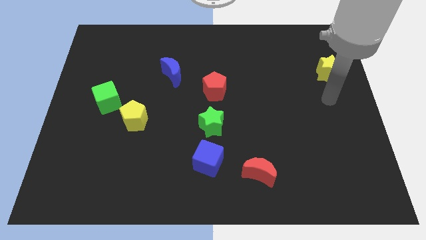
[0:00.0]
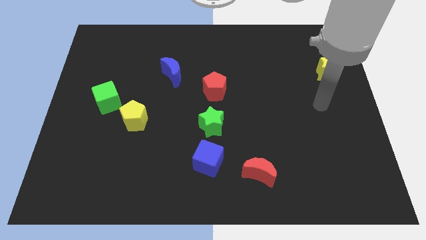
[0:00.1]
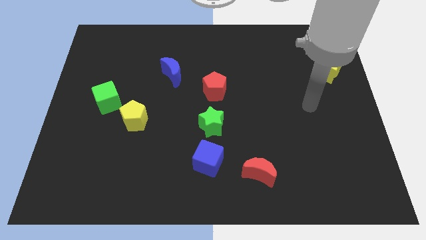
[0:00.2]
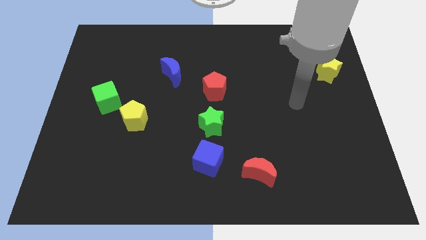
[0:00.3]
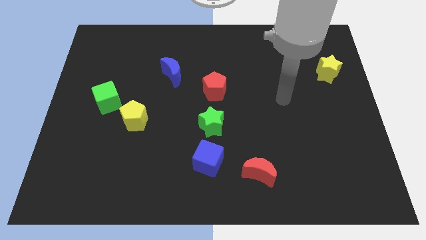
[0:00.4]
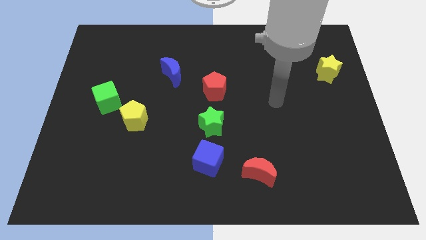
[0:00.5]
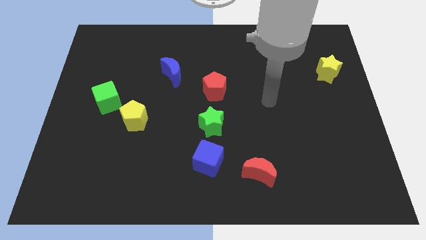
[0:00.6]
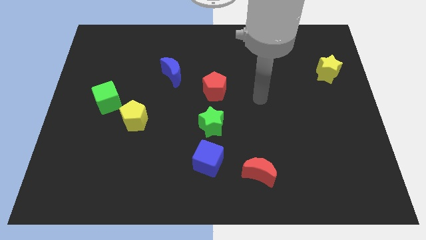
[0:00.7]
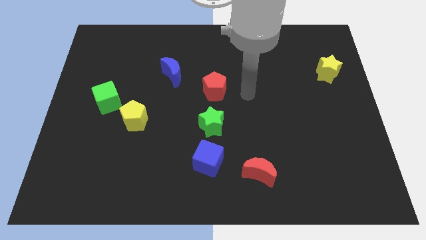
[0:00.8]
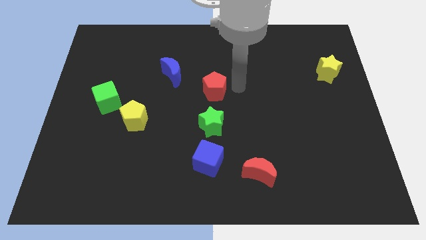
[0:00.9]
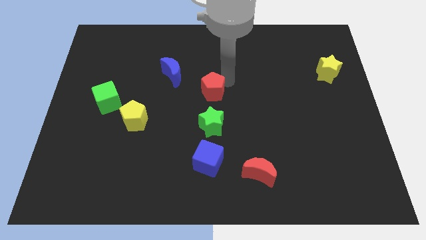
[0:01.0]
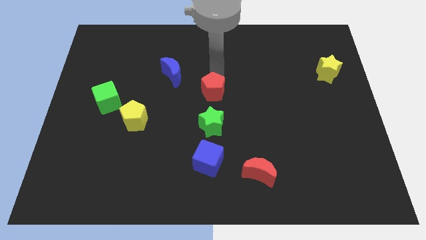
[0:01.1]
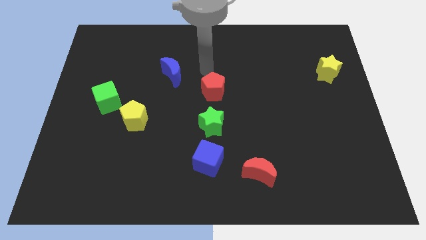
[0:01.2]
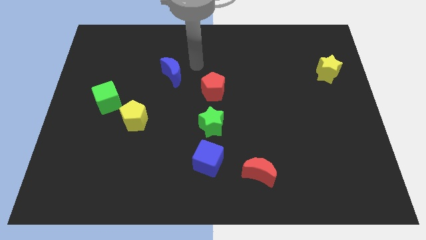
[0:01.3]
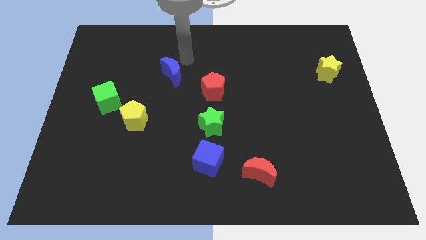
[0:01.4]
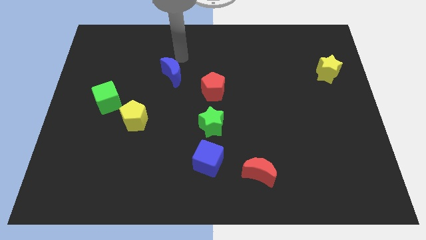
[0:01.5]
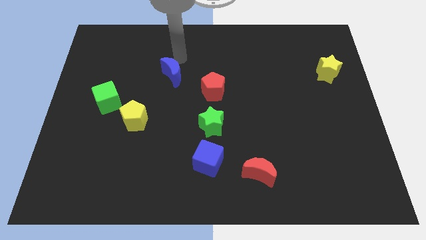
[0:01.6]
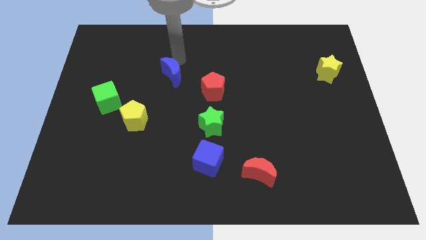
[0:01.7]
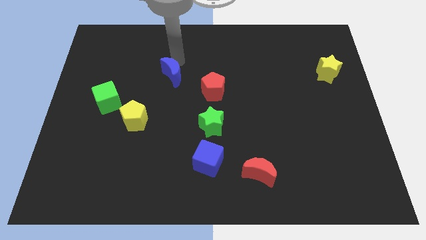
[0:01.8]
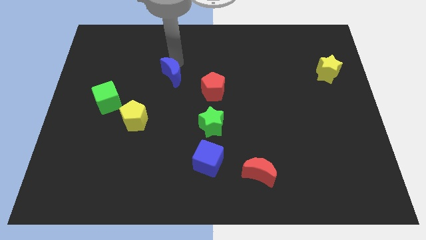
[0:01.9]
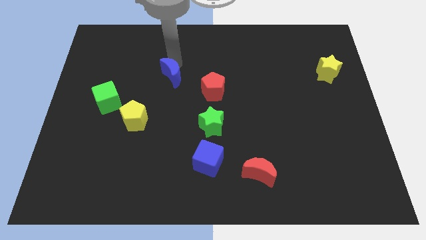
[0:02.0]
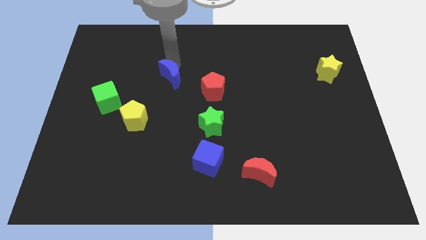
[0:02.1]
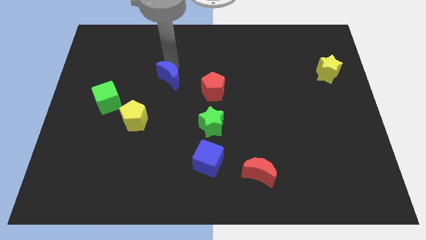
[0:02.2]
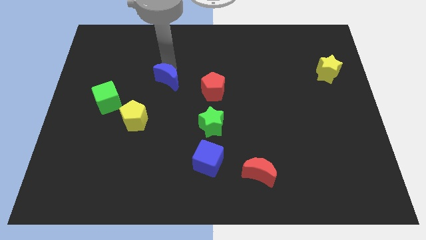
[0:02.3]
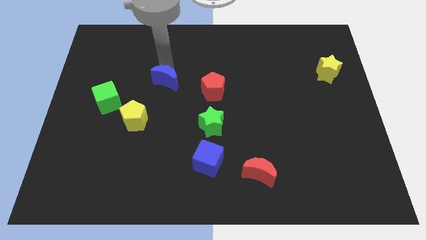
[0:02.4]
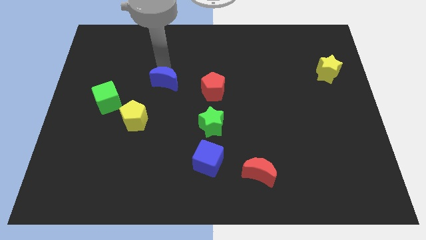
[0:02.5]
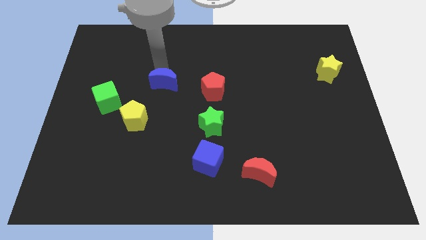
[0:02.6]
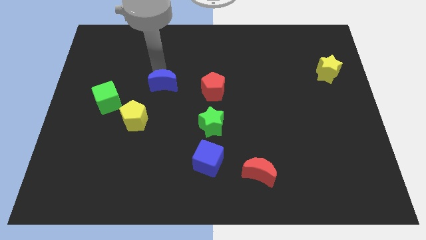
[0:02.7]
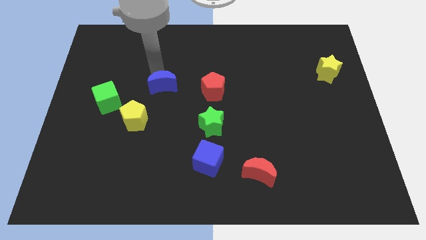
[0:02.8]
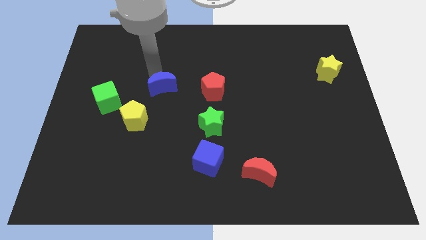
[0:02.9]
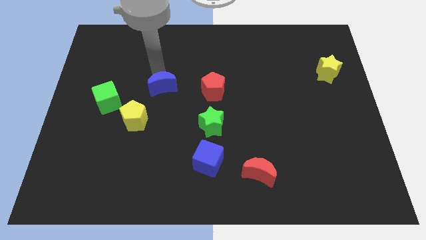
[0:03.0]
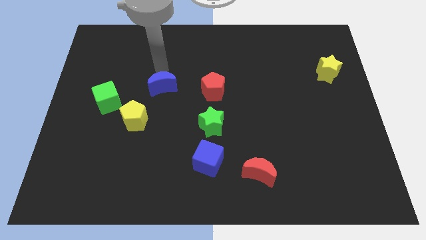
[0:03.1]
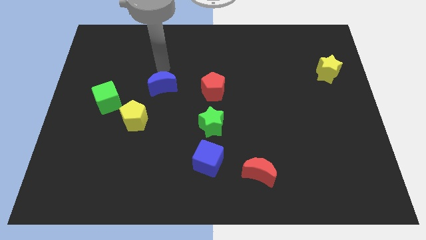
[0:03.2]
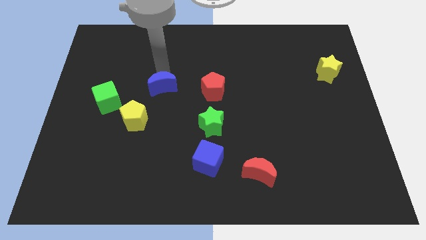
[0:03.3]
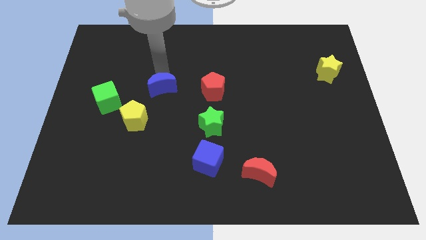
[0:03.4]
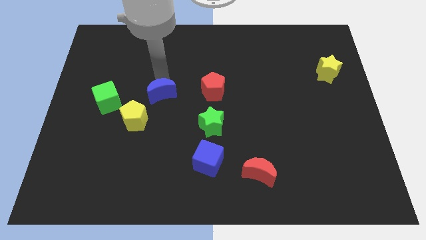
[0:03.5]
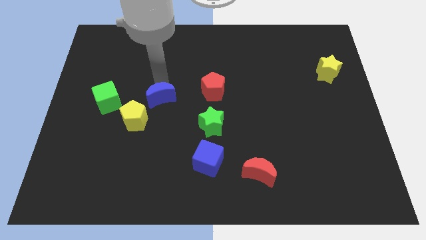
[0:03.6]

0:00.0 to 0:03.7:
move the blue moon a bit downwards

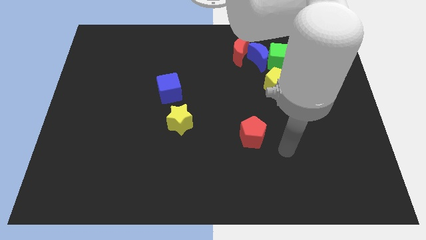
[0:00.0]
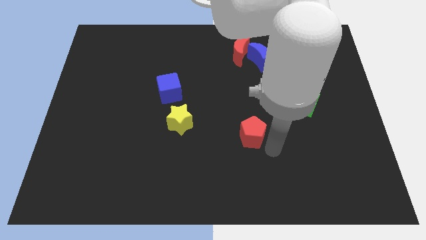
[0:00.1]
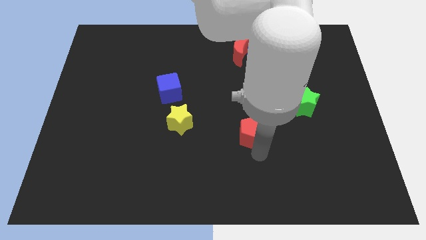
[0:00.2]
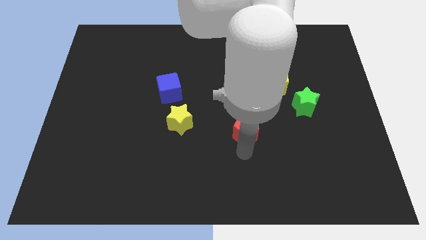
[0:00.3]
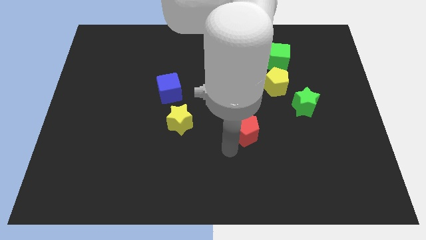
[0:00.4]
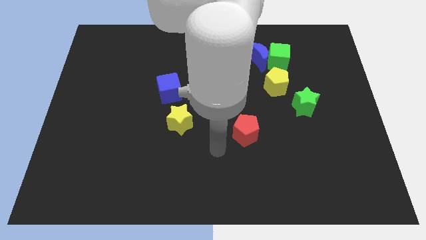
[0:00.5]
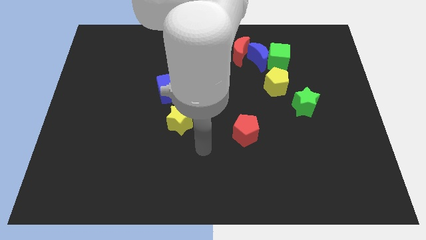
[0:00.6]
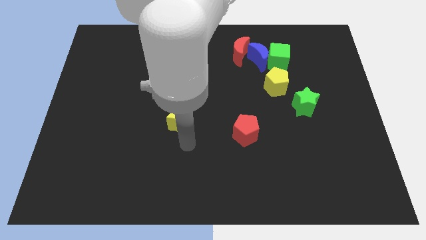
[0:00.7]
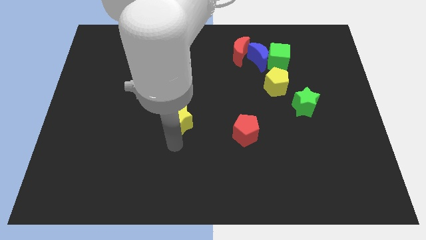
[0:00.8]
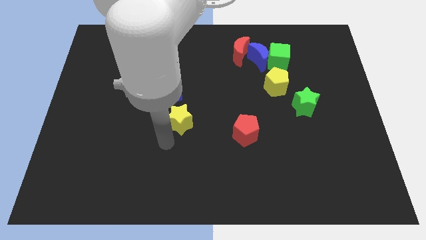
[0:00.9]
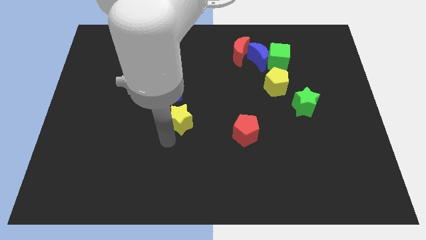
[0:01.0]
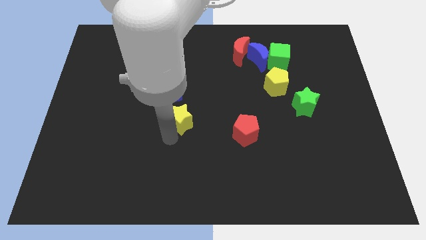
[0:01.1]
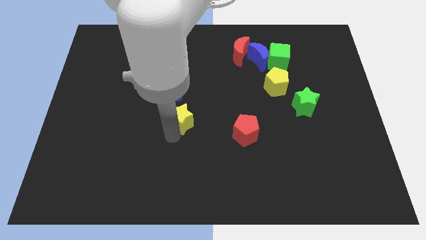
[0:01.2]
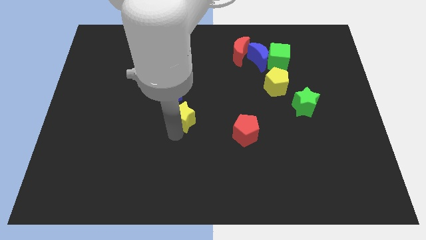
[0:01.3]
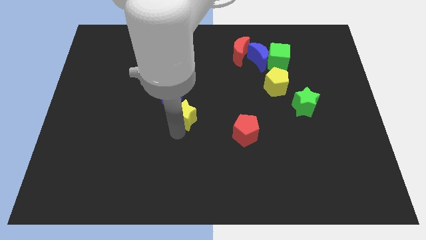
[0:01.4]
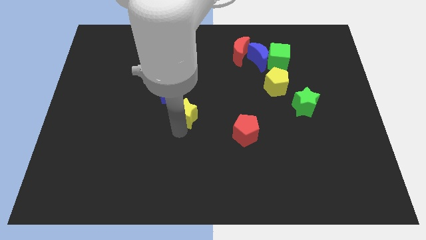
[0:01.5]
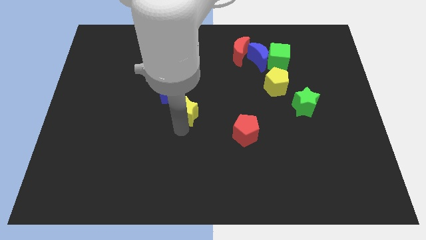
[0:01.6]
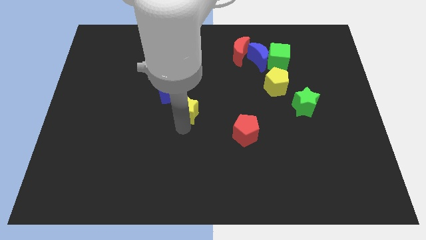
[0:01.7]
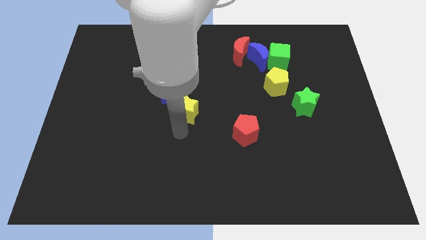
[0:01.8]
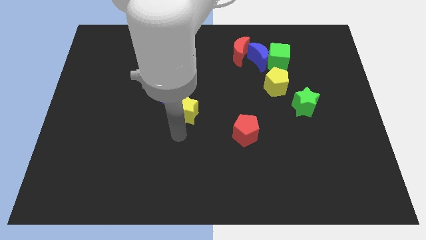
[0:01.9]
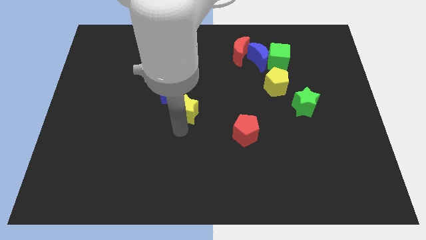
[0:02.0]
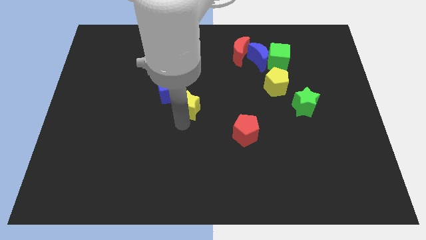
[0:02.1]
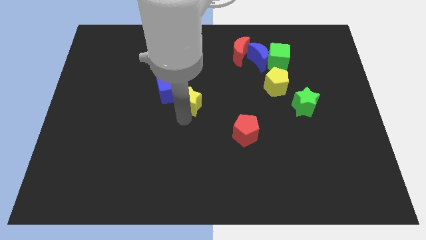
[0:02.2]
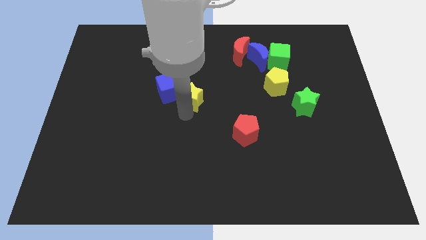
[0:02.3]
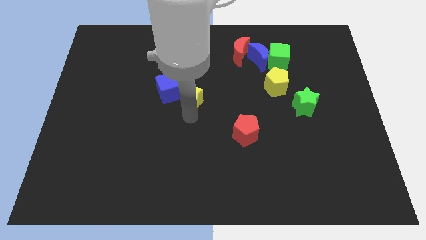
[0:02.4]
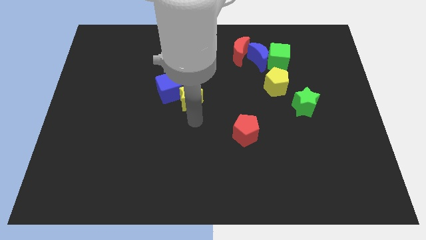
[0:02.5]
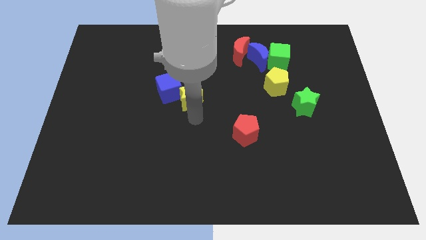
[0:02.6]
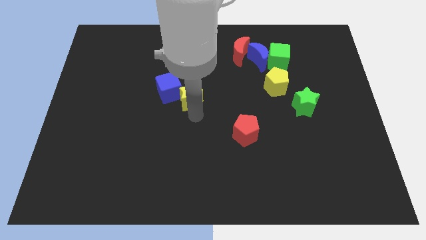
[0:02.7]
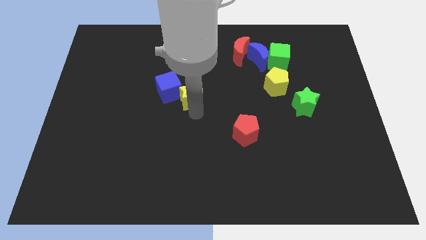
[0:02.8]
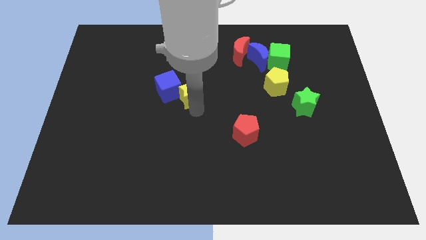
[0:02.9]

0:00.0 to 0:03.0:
slightly push the yellow star up

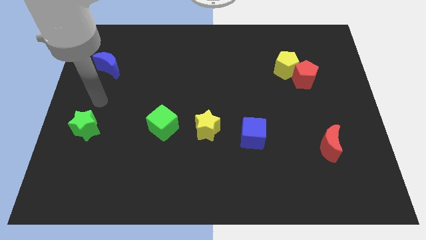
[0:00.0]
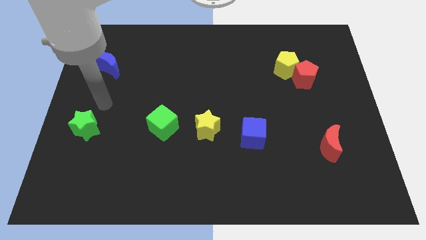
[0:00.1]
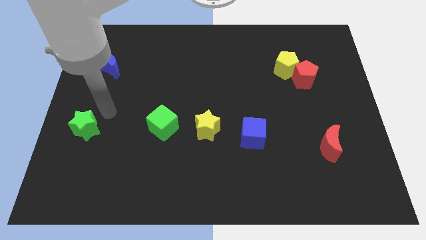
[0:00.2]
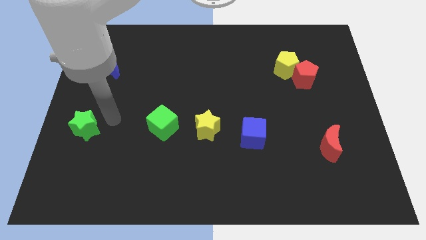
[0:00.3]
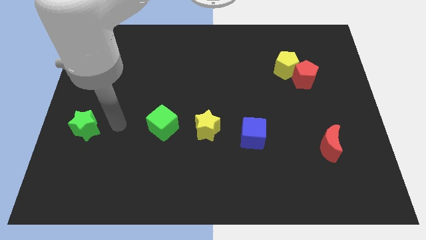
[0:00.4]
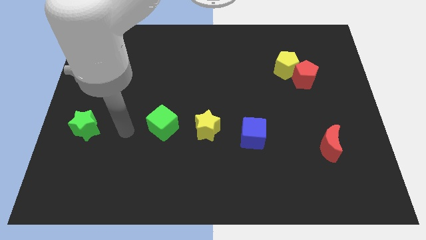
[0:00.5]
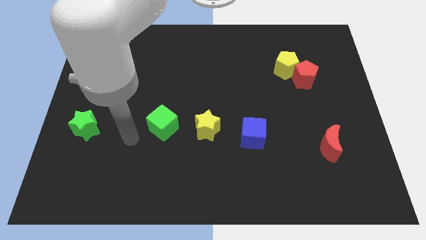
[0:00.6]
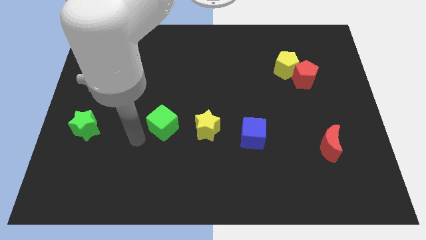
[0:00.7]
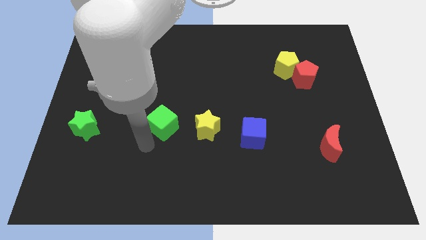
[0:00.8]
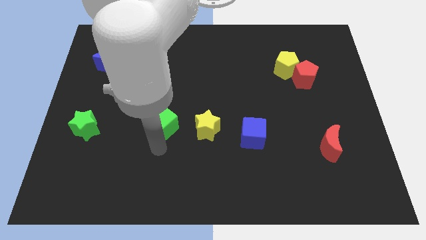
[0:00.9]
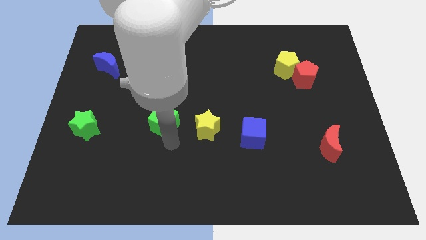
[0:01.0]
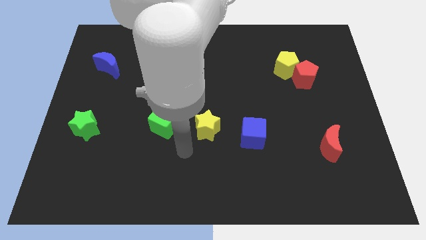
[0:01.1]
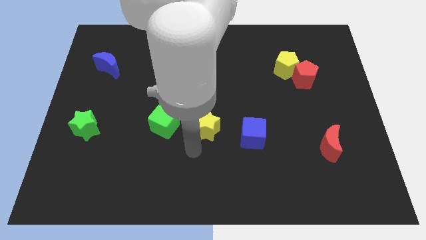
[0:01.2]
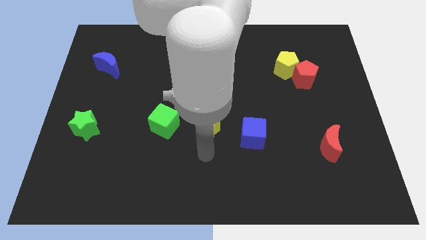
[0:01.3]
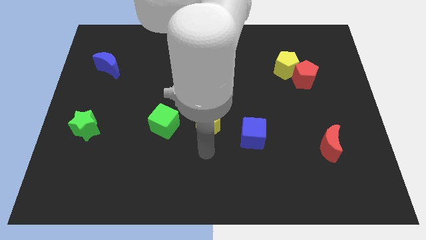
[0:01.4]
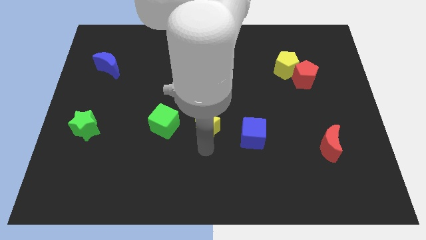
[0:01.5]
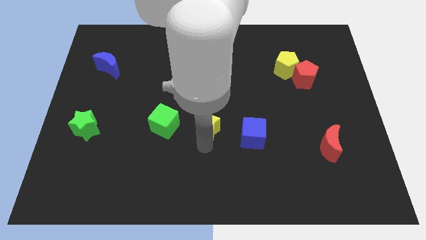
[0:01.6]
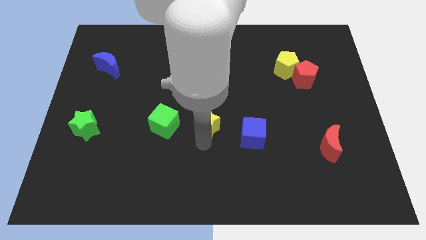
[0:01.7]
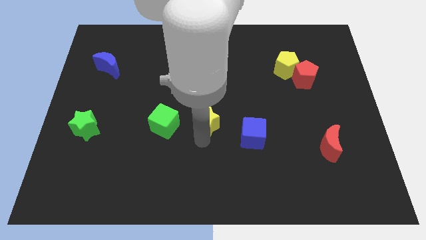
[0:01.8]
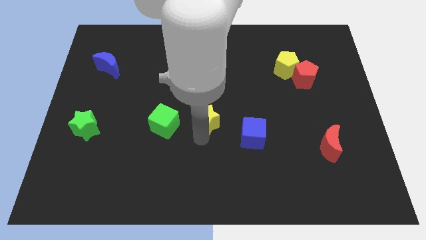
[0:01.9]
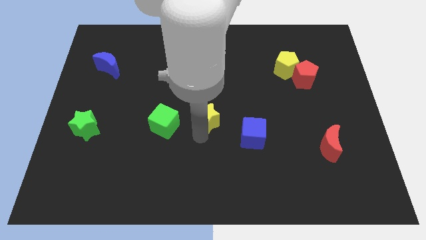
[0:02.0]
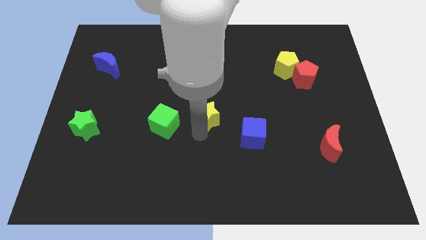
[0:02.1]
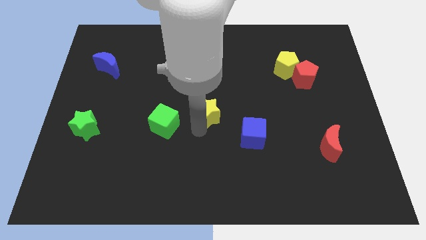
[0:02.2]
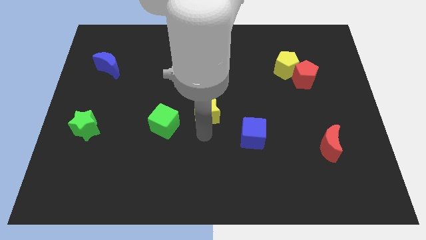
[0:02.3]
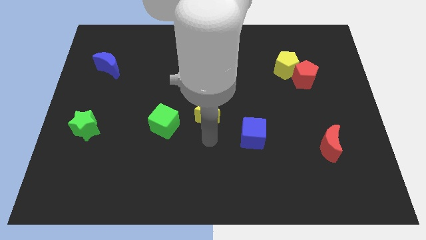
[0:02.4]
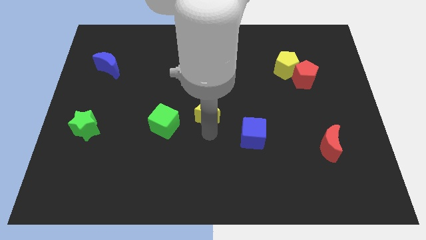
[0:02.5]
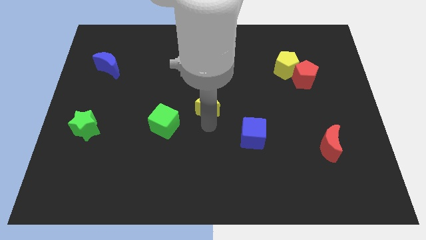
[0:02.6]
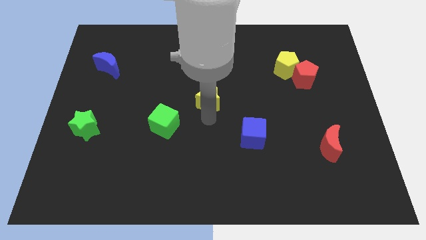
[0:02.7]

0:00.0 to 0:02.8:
slightly move the yellow star up
